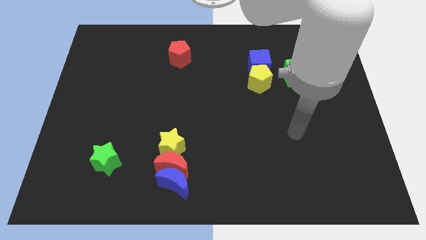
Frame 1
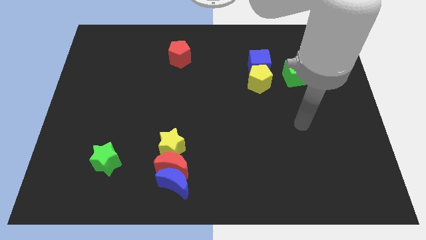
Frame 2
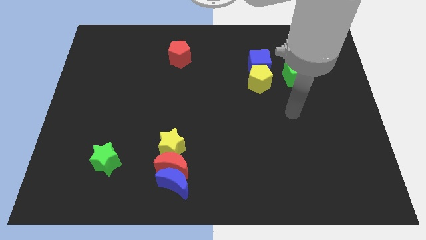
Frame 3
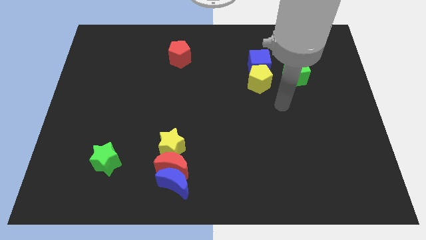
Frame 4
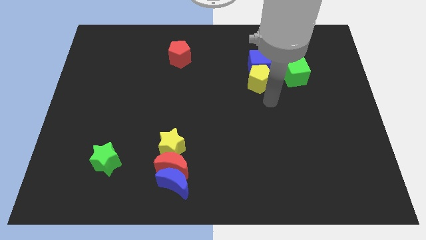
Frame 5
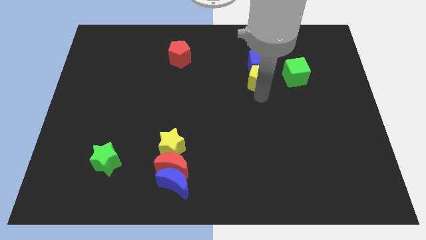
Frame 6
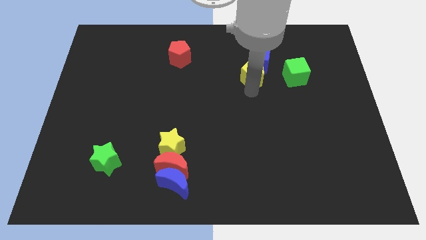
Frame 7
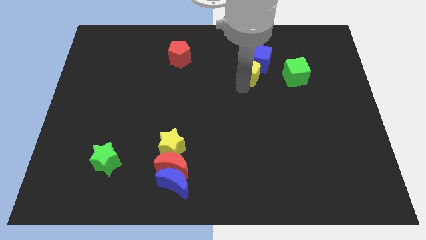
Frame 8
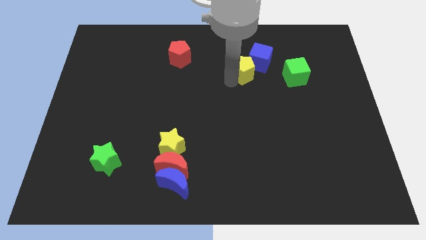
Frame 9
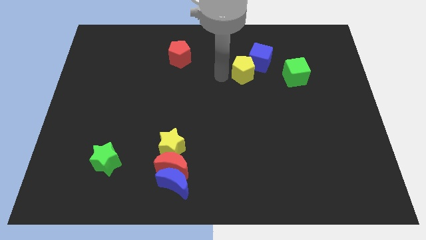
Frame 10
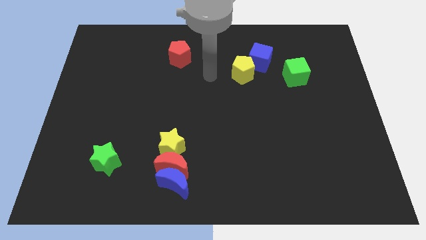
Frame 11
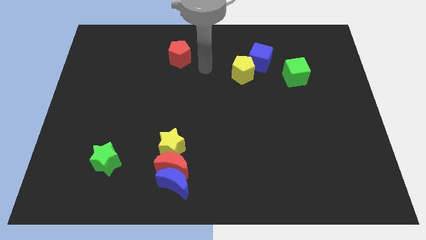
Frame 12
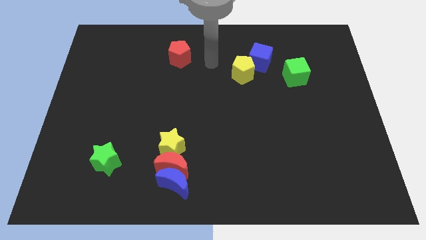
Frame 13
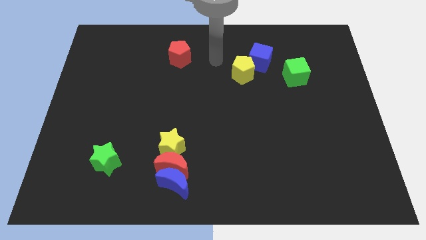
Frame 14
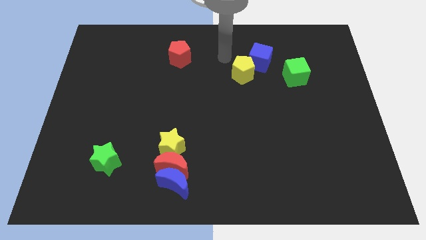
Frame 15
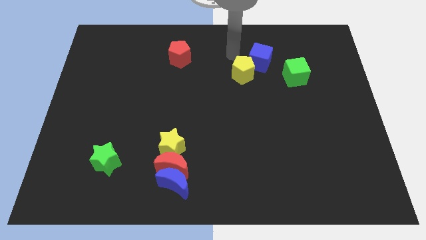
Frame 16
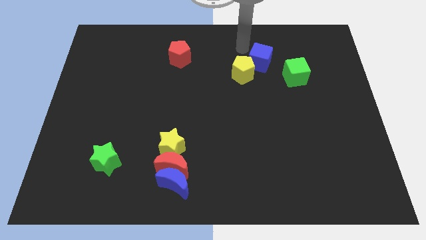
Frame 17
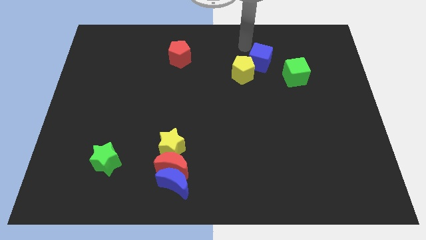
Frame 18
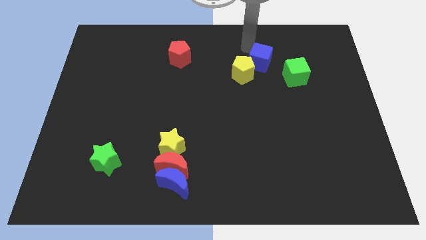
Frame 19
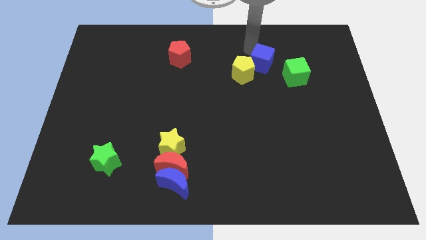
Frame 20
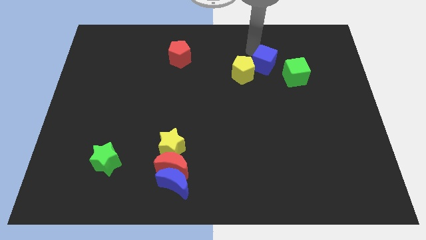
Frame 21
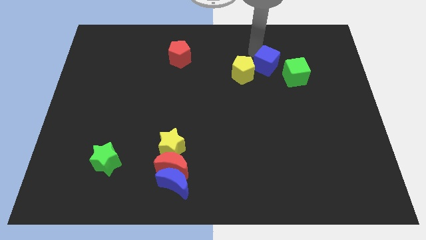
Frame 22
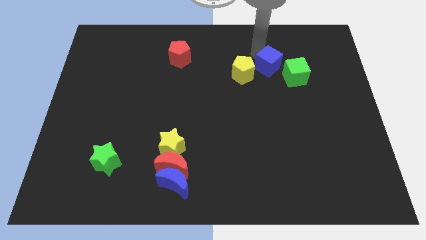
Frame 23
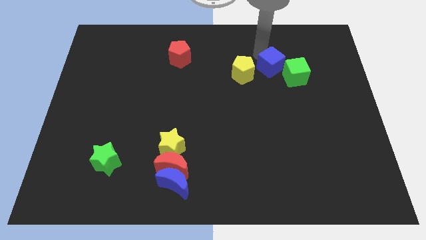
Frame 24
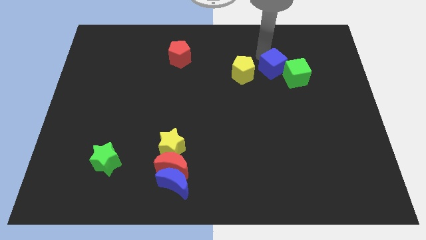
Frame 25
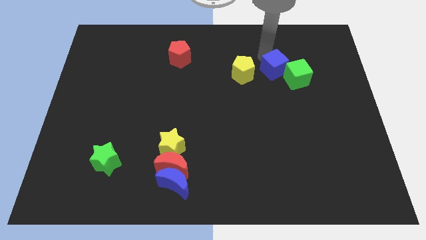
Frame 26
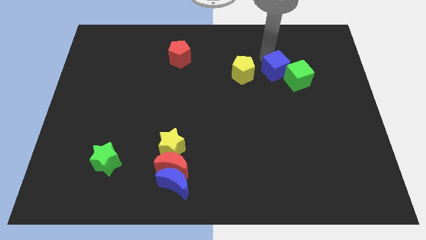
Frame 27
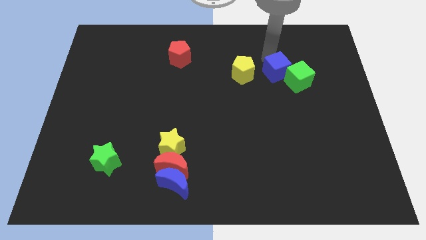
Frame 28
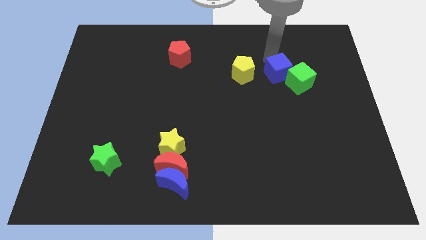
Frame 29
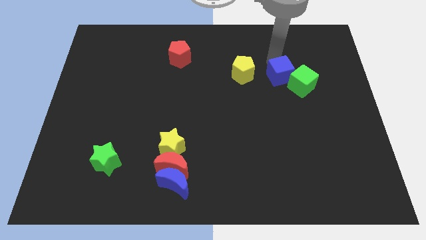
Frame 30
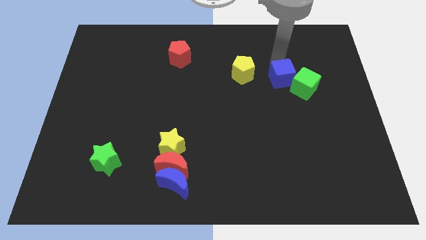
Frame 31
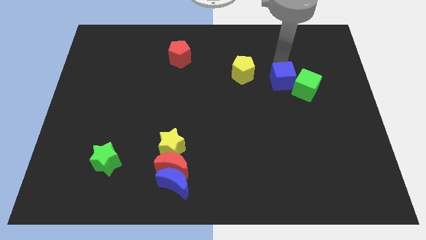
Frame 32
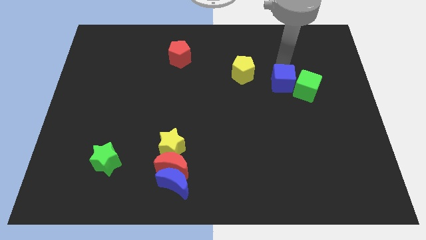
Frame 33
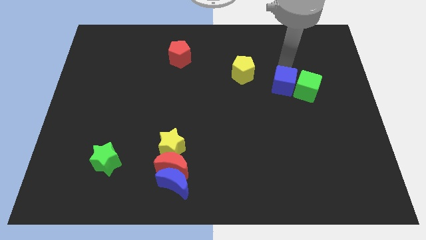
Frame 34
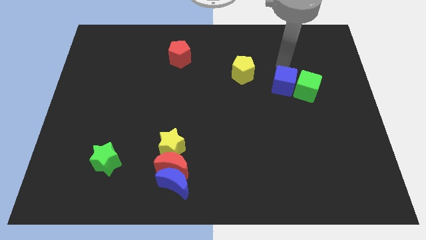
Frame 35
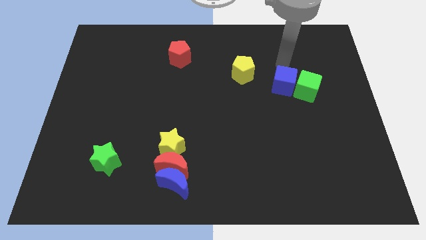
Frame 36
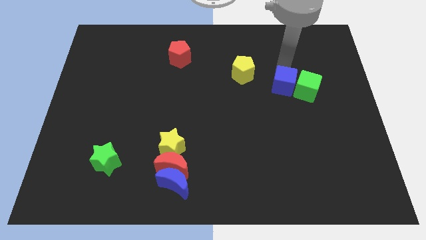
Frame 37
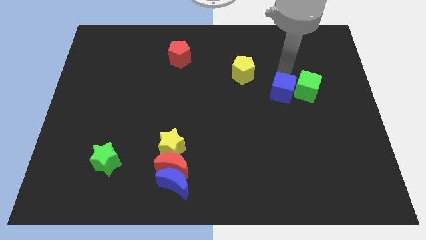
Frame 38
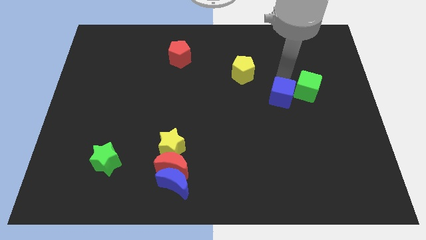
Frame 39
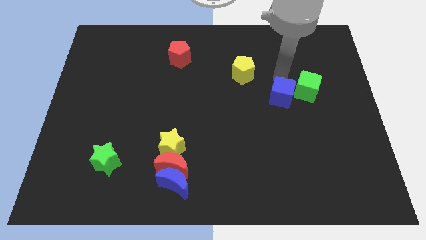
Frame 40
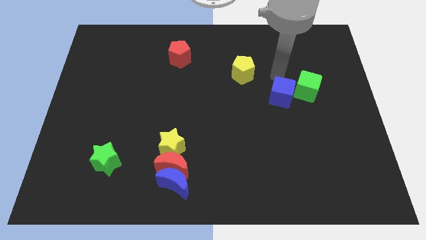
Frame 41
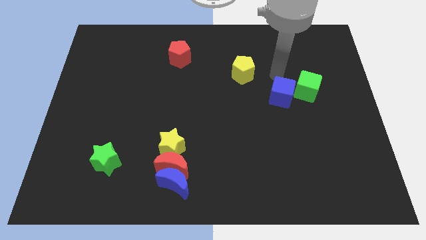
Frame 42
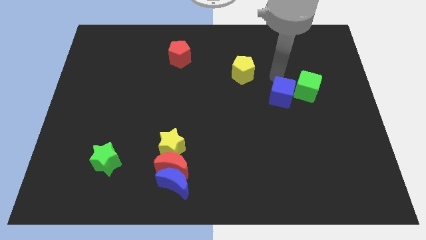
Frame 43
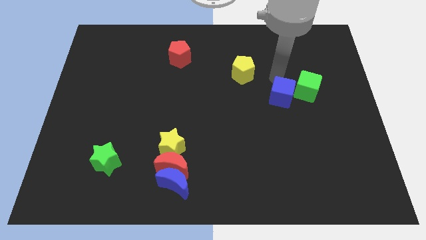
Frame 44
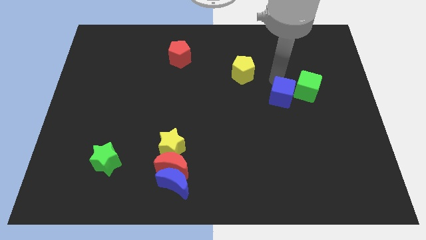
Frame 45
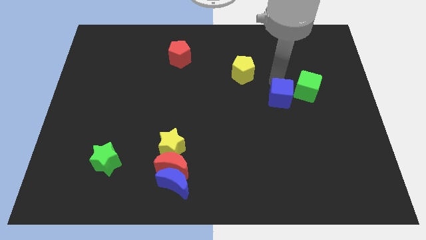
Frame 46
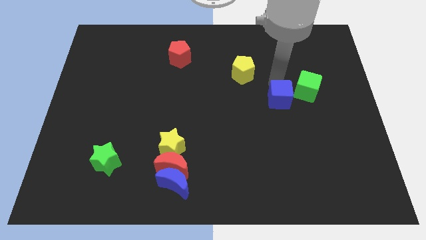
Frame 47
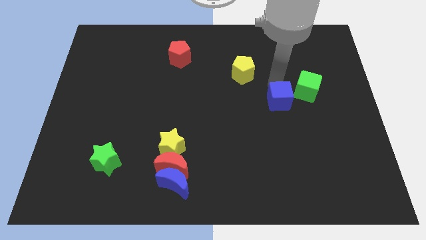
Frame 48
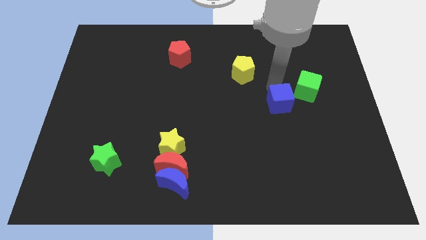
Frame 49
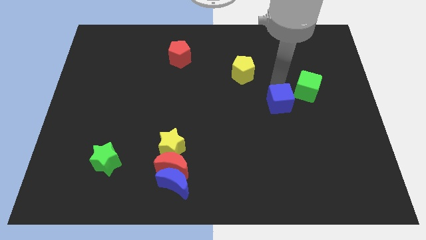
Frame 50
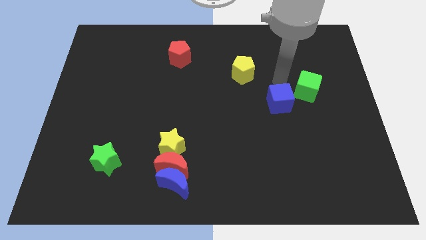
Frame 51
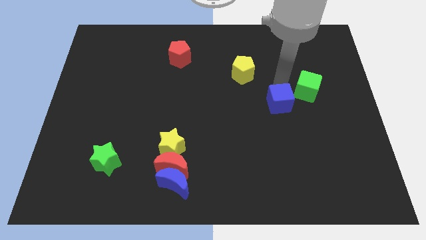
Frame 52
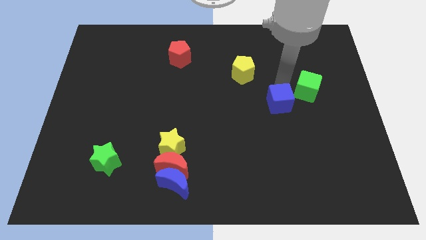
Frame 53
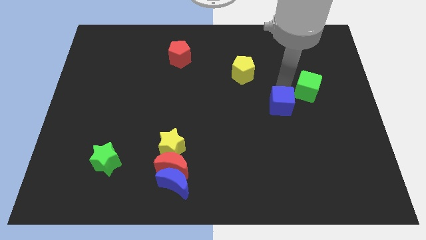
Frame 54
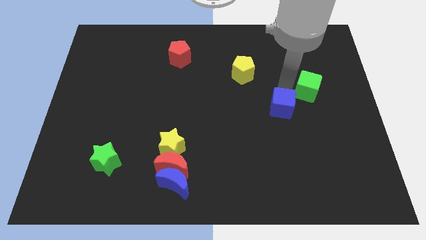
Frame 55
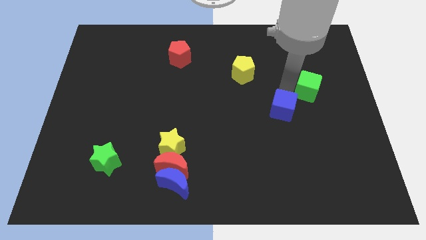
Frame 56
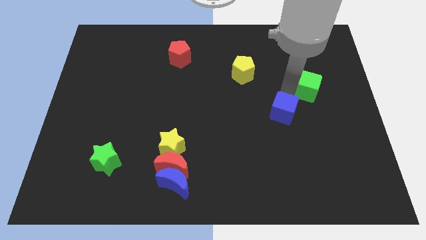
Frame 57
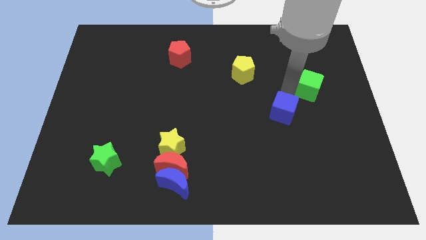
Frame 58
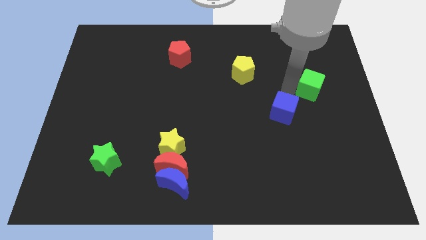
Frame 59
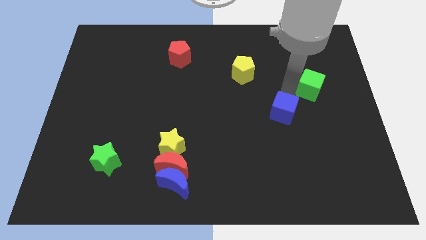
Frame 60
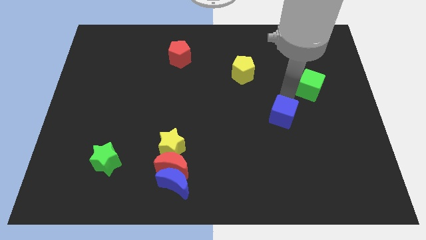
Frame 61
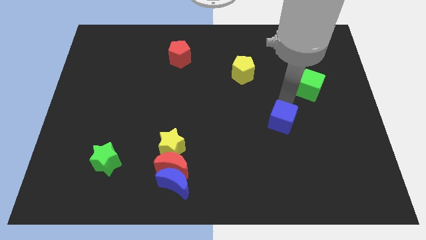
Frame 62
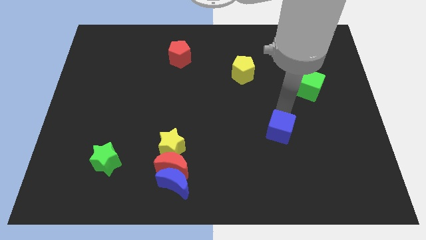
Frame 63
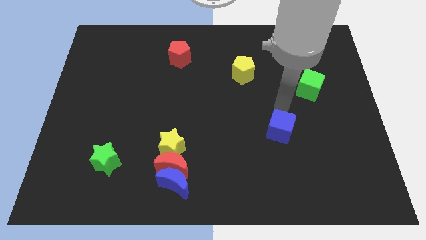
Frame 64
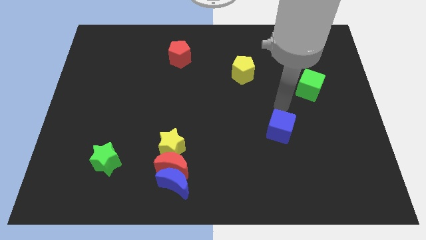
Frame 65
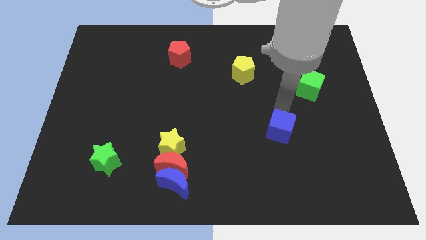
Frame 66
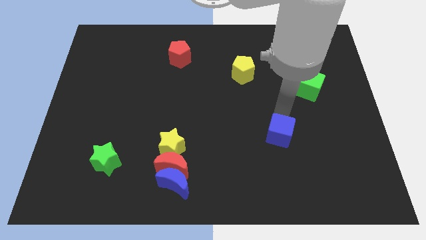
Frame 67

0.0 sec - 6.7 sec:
move the blue cube downwards

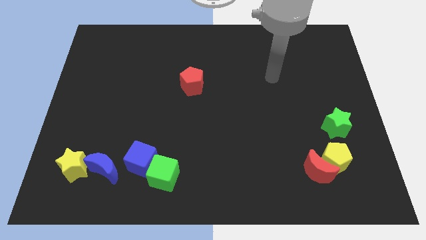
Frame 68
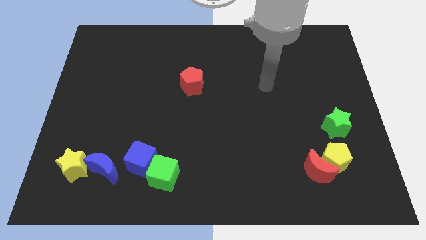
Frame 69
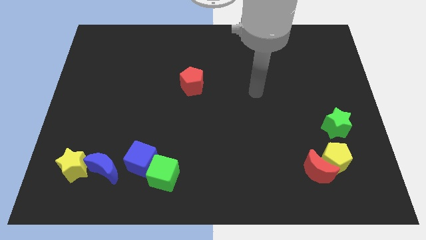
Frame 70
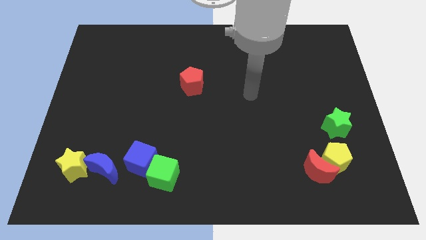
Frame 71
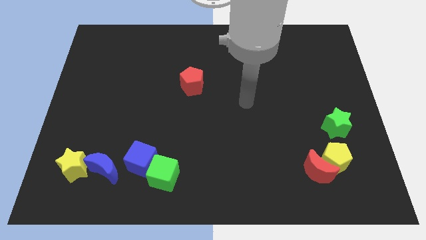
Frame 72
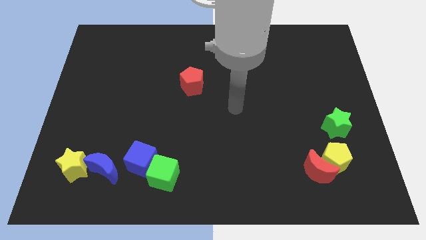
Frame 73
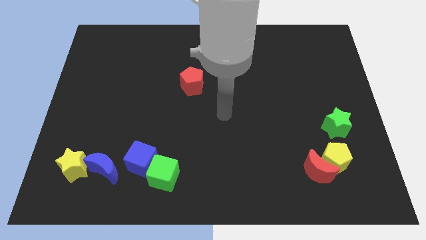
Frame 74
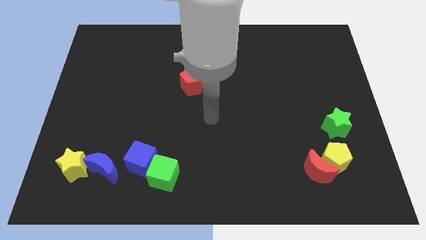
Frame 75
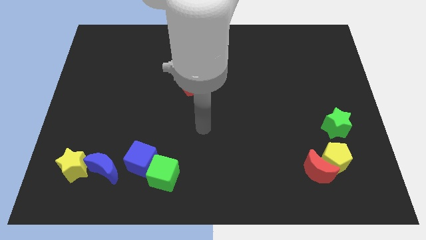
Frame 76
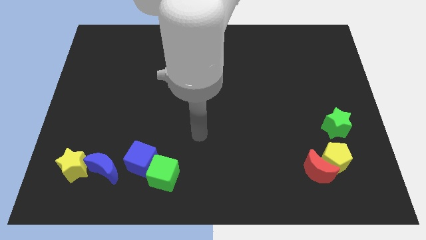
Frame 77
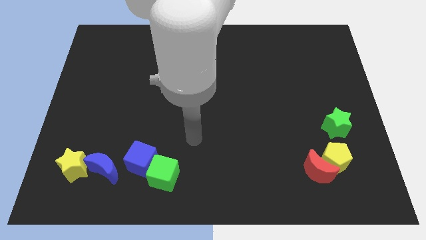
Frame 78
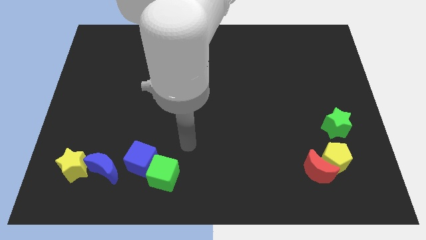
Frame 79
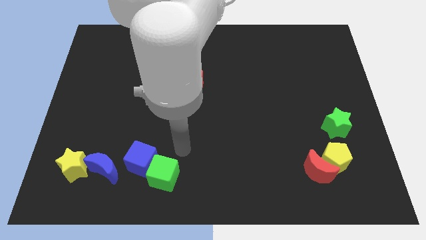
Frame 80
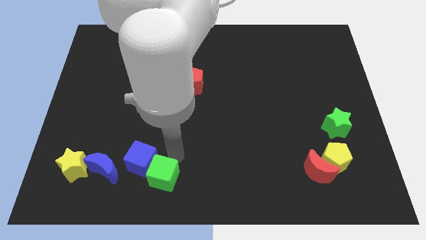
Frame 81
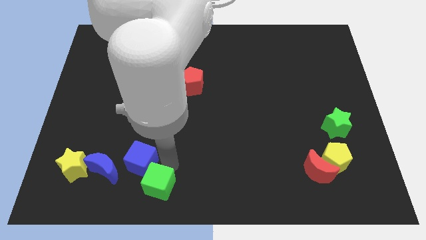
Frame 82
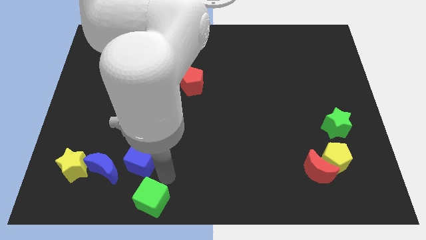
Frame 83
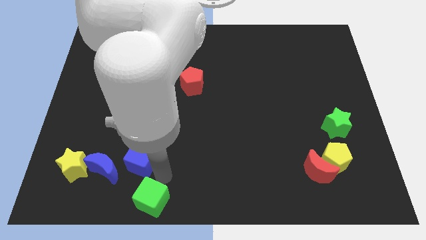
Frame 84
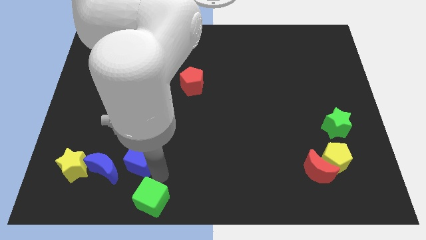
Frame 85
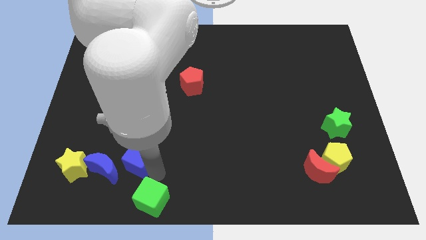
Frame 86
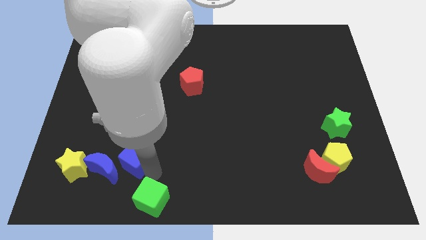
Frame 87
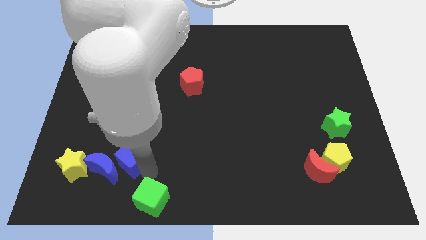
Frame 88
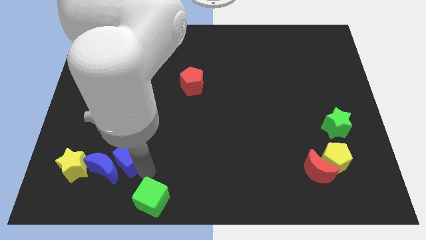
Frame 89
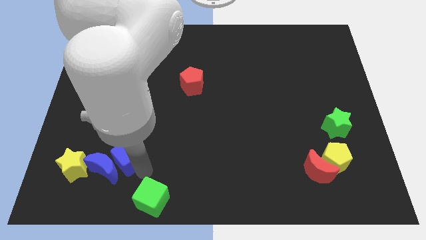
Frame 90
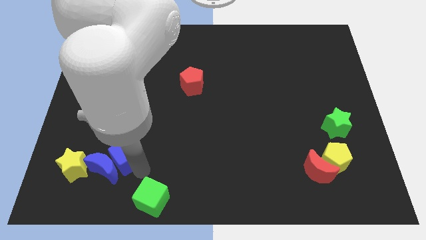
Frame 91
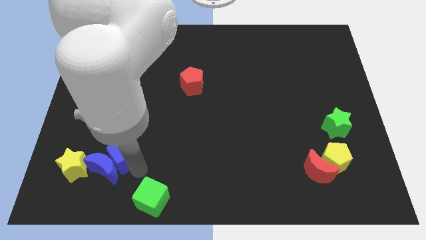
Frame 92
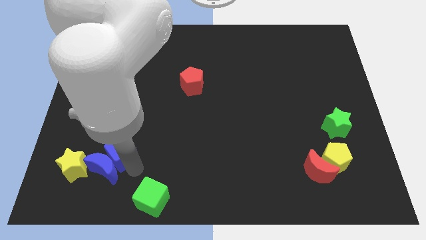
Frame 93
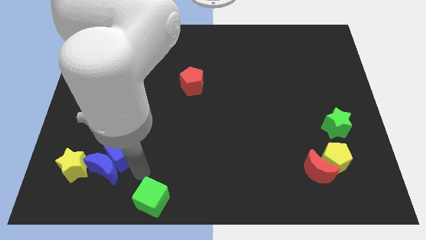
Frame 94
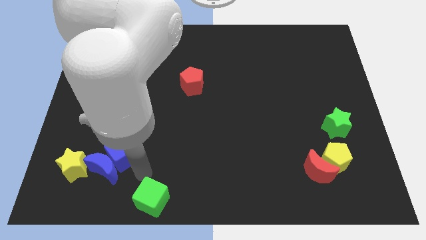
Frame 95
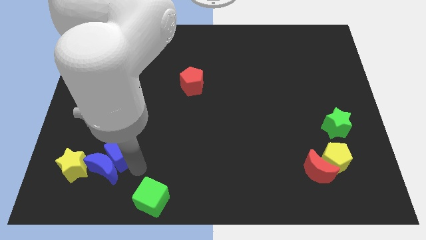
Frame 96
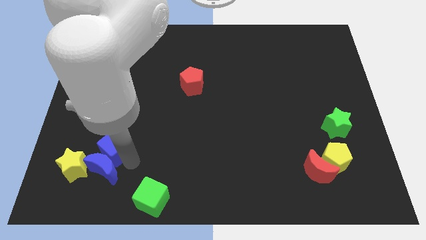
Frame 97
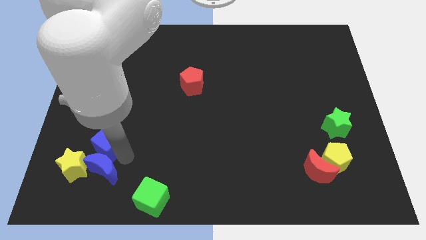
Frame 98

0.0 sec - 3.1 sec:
slide the blue cube up and left a little bit
